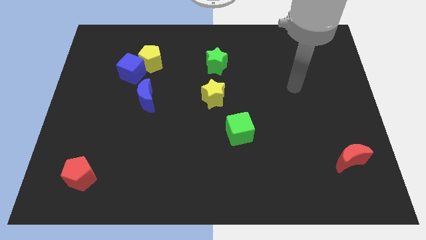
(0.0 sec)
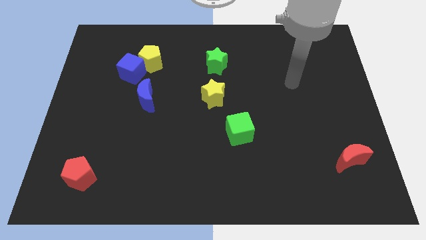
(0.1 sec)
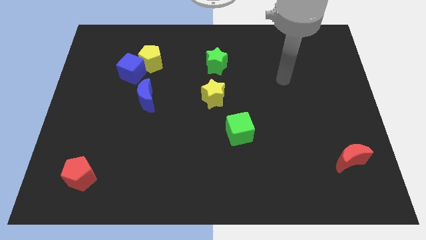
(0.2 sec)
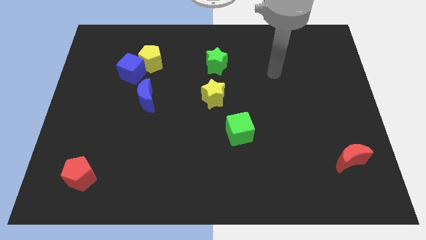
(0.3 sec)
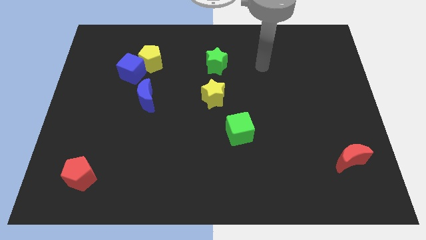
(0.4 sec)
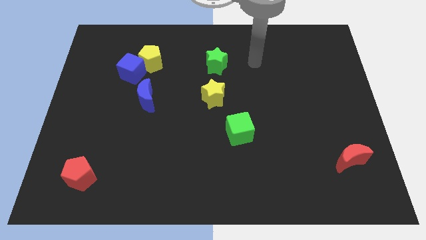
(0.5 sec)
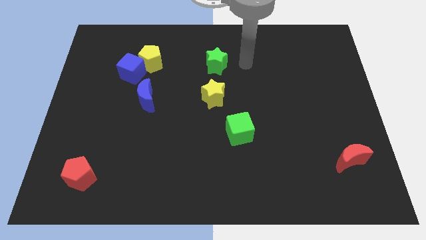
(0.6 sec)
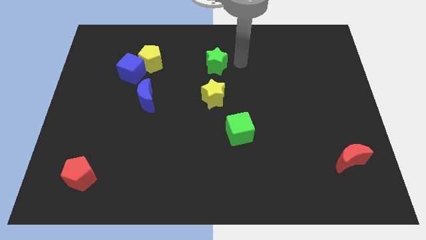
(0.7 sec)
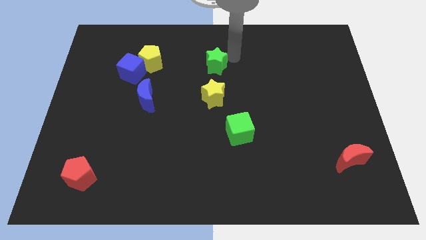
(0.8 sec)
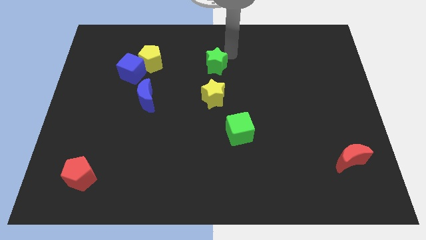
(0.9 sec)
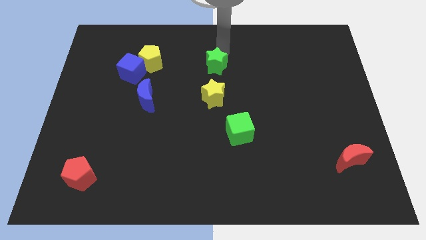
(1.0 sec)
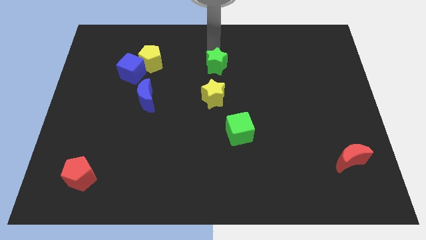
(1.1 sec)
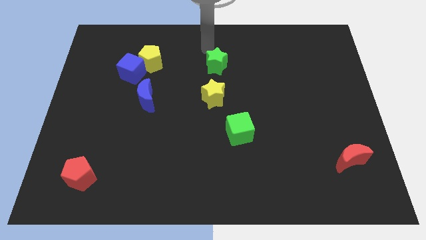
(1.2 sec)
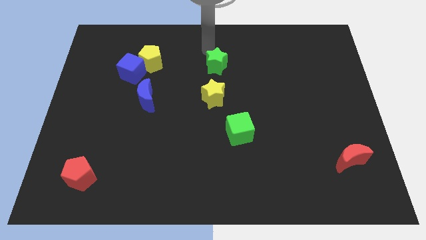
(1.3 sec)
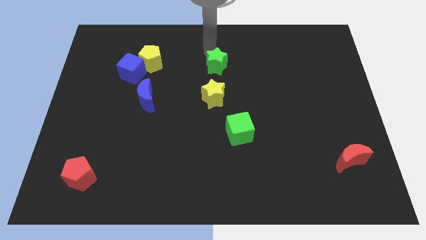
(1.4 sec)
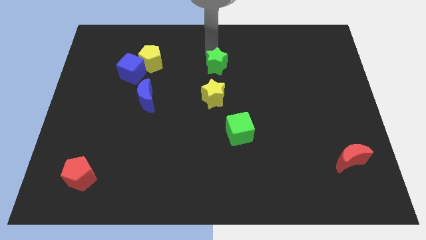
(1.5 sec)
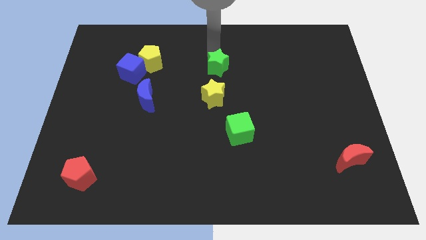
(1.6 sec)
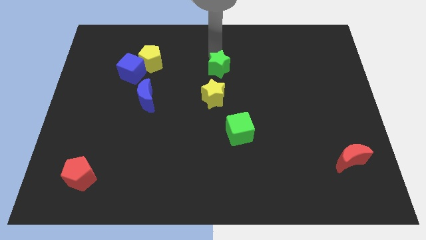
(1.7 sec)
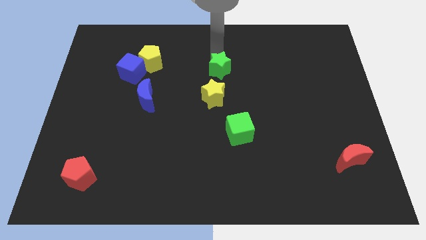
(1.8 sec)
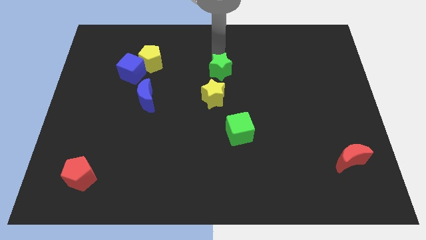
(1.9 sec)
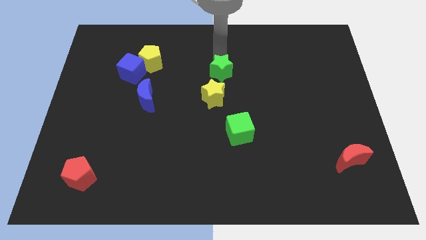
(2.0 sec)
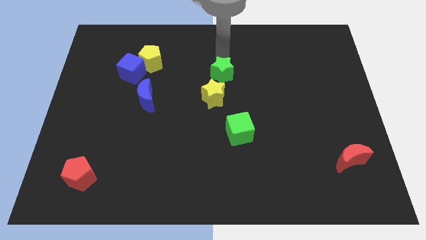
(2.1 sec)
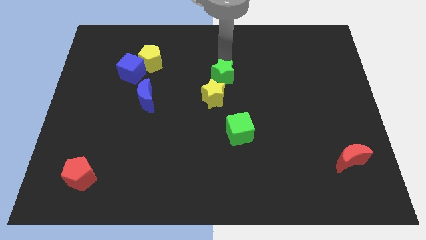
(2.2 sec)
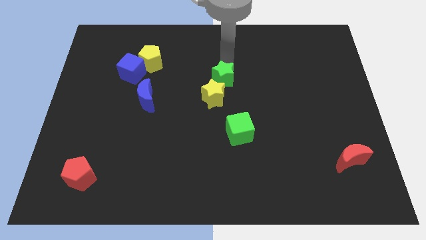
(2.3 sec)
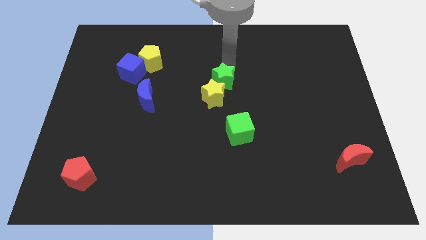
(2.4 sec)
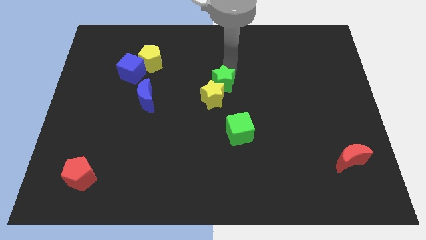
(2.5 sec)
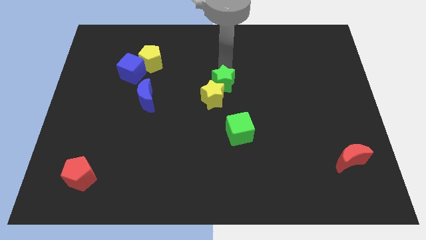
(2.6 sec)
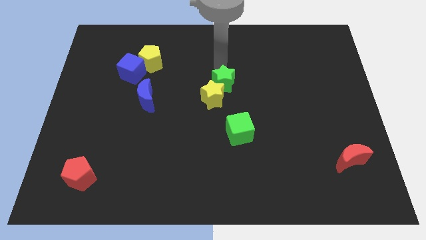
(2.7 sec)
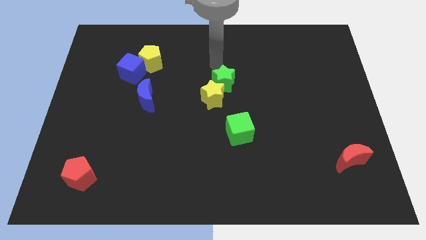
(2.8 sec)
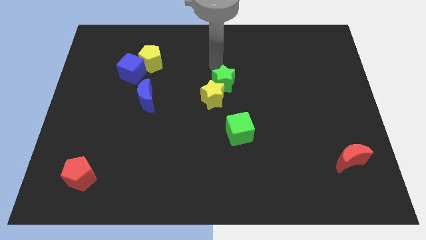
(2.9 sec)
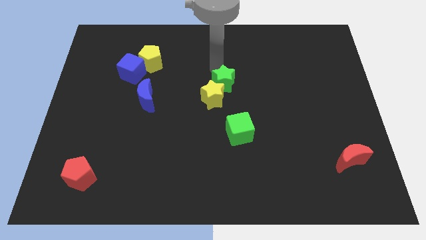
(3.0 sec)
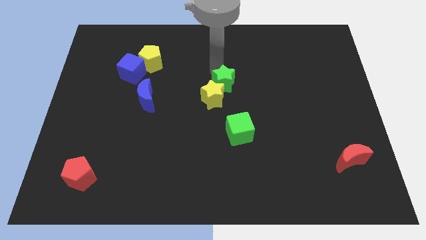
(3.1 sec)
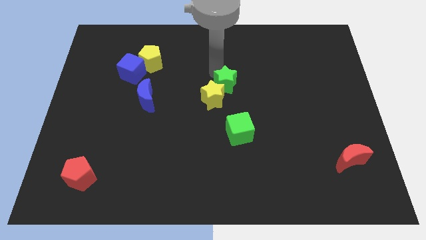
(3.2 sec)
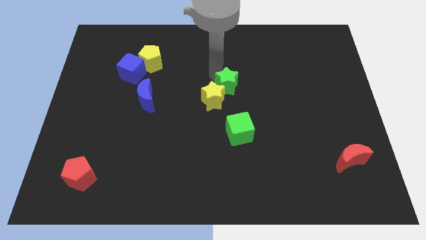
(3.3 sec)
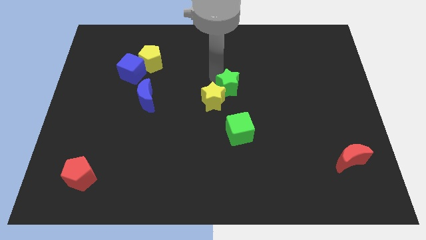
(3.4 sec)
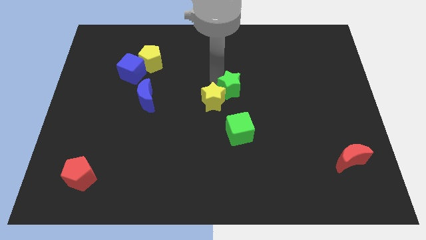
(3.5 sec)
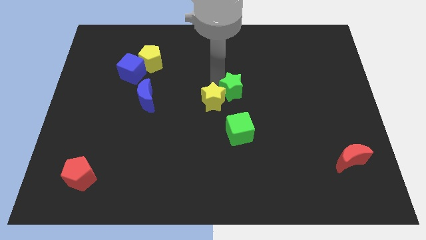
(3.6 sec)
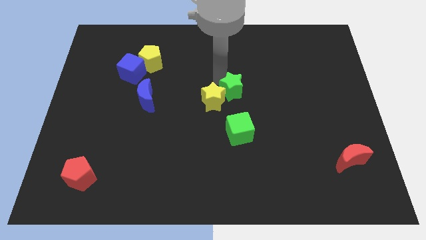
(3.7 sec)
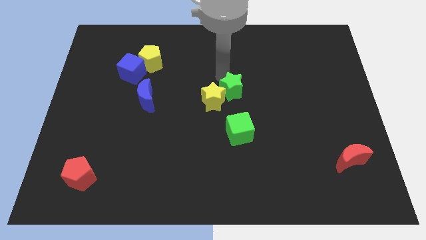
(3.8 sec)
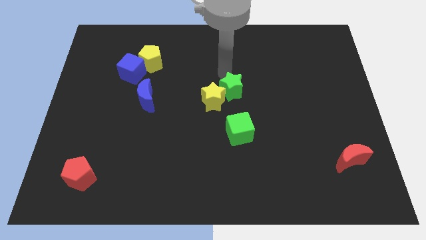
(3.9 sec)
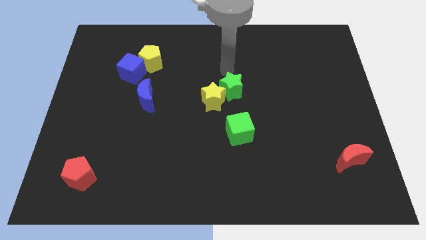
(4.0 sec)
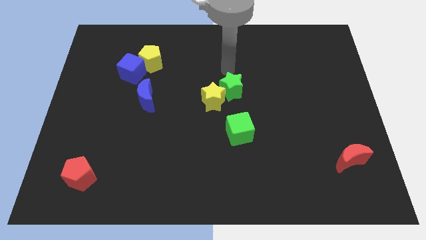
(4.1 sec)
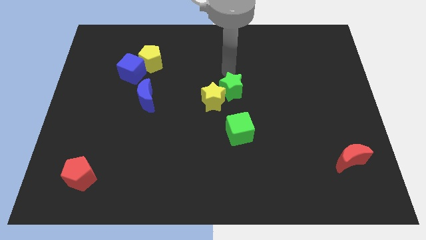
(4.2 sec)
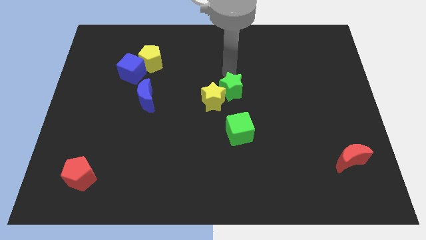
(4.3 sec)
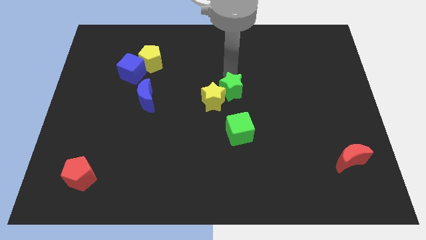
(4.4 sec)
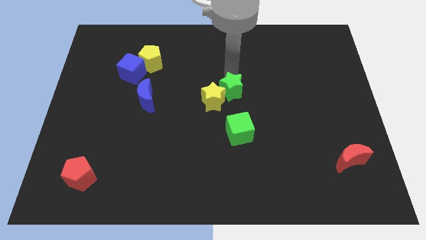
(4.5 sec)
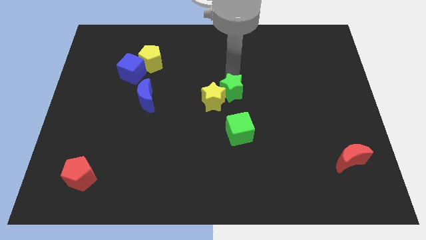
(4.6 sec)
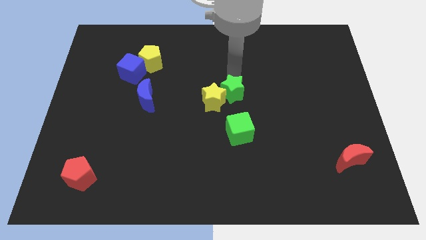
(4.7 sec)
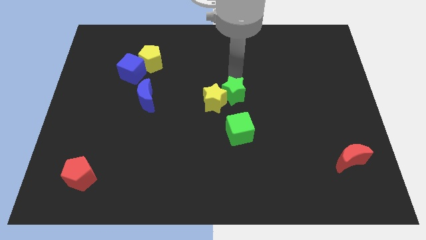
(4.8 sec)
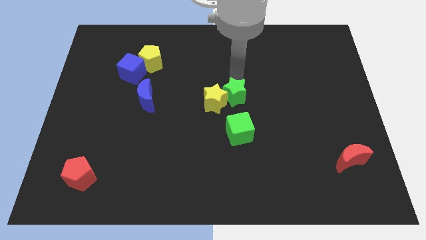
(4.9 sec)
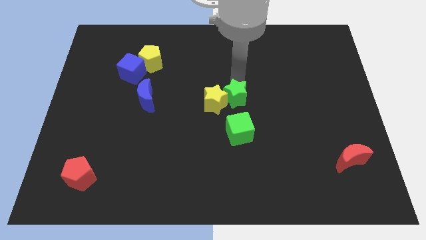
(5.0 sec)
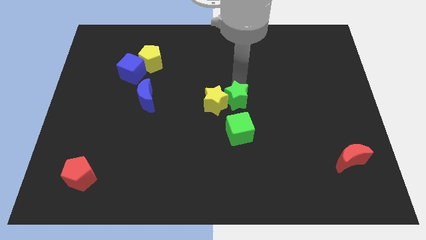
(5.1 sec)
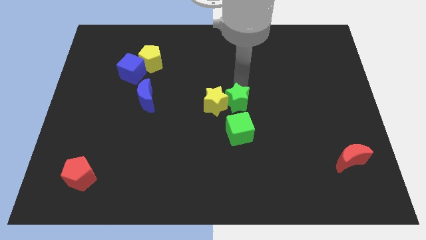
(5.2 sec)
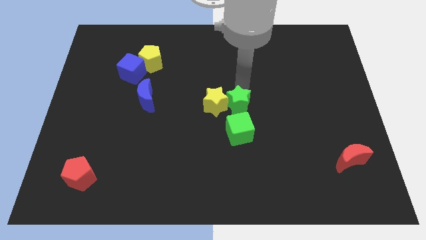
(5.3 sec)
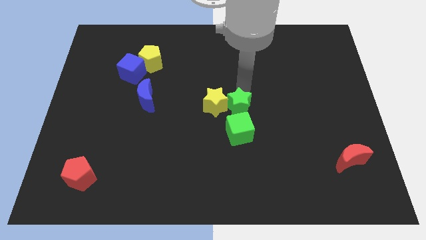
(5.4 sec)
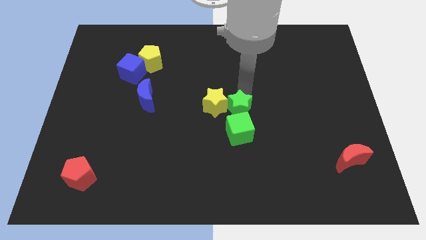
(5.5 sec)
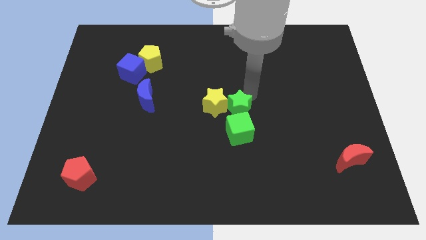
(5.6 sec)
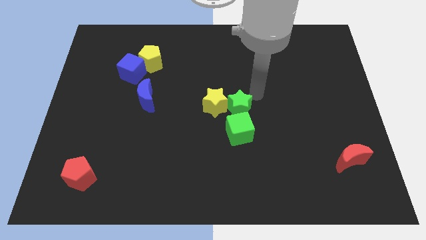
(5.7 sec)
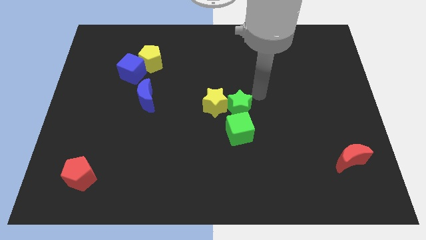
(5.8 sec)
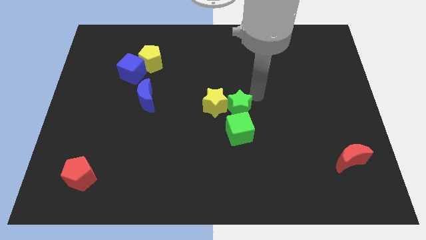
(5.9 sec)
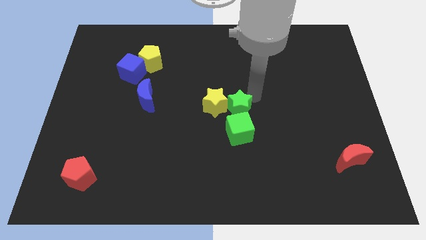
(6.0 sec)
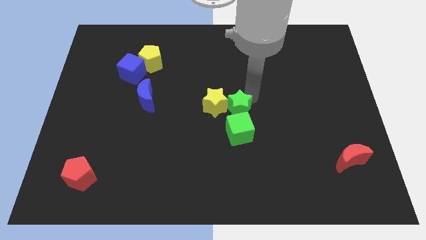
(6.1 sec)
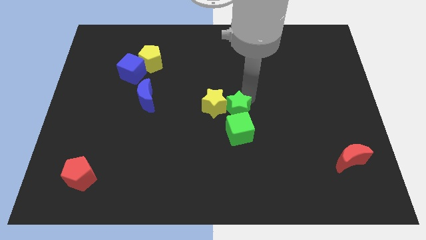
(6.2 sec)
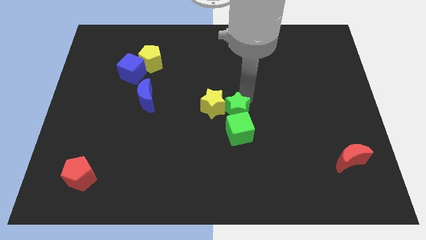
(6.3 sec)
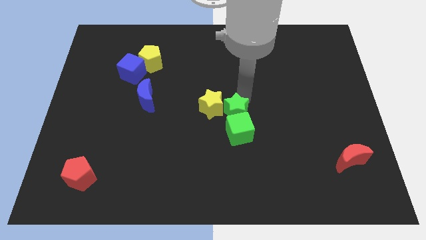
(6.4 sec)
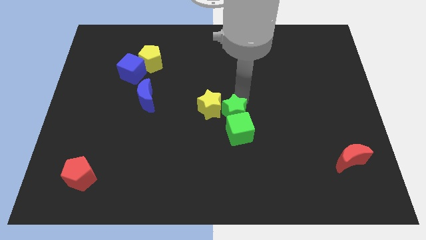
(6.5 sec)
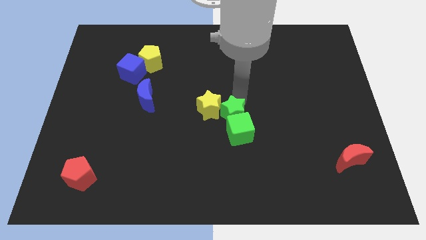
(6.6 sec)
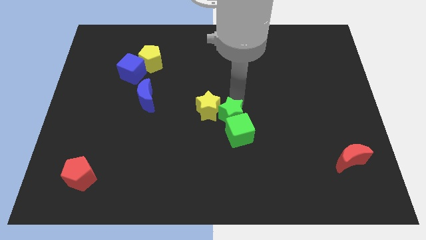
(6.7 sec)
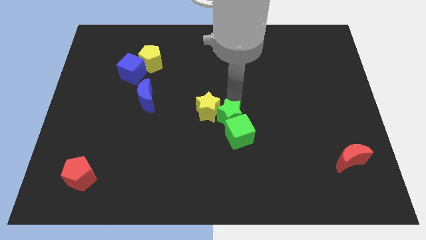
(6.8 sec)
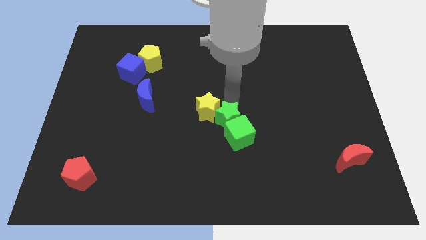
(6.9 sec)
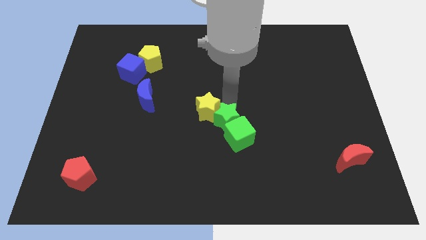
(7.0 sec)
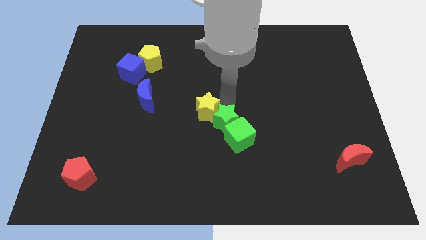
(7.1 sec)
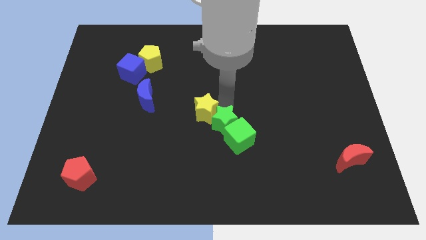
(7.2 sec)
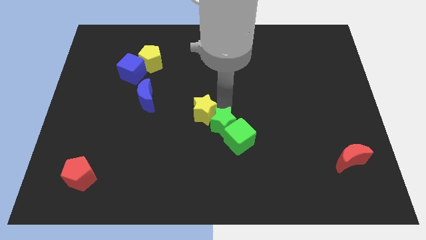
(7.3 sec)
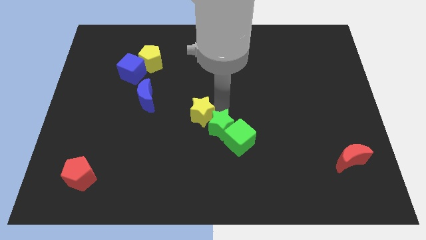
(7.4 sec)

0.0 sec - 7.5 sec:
move the green star down

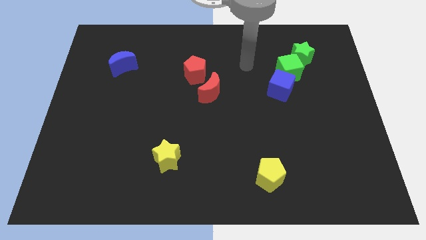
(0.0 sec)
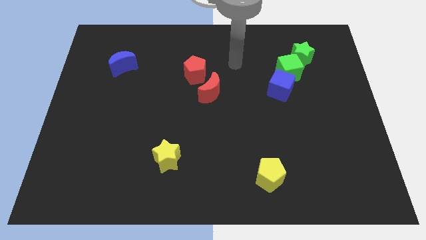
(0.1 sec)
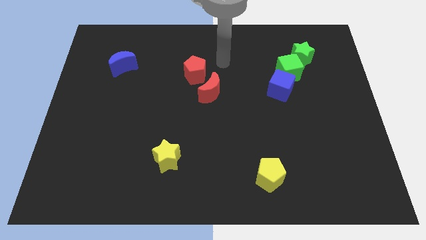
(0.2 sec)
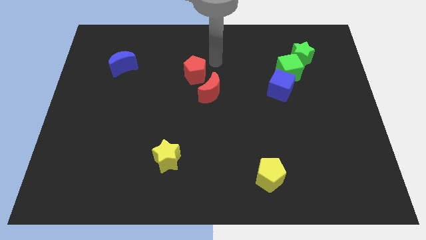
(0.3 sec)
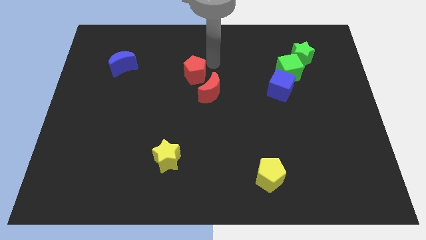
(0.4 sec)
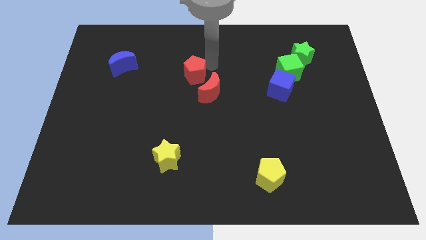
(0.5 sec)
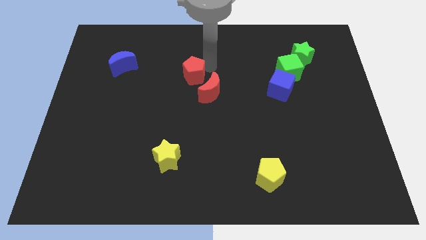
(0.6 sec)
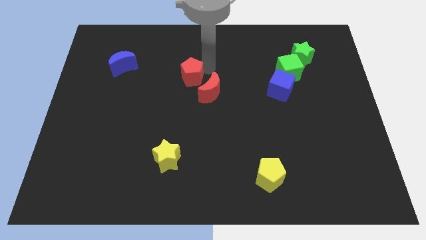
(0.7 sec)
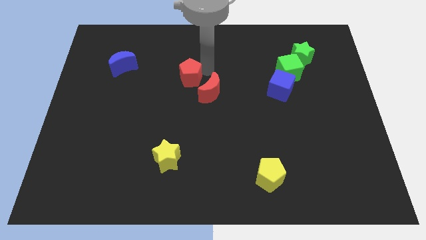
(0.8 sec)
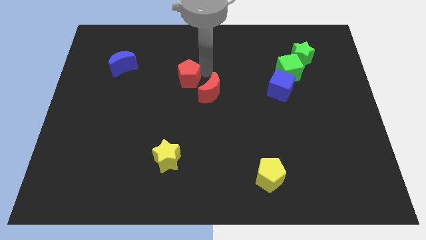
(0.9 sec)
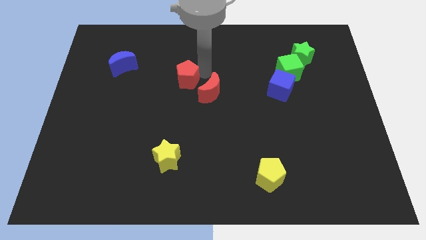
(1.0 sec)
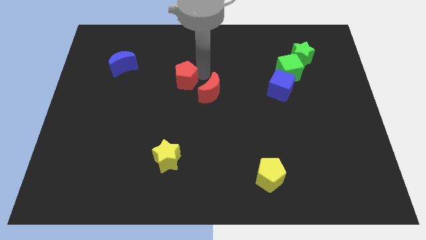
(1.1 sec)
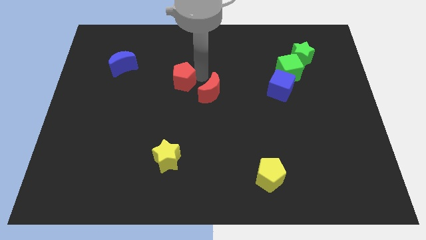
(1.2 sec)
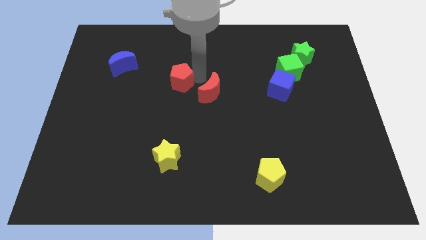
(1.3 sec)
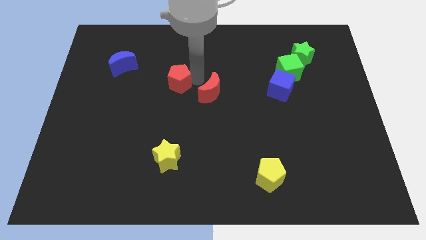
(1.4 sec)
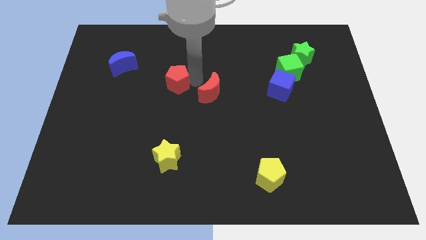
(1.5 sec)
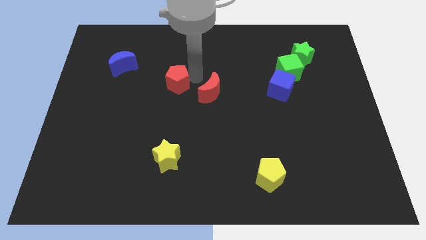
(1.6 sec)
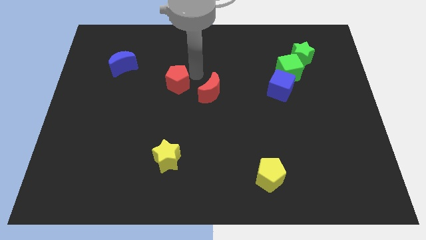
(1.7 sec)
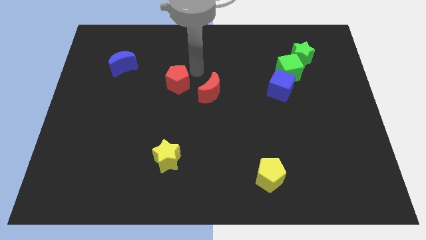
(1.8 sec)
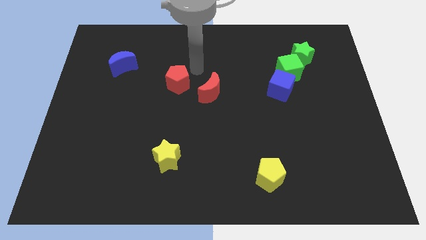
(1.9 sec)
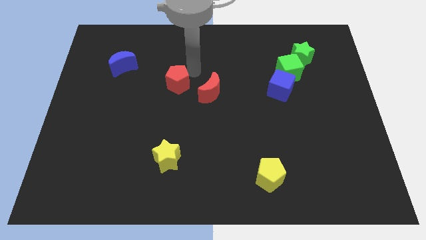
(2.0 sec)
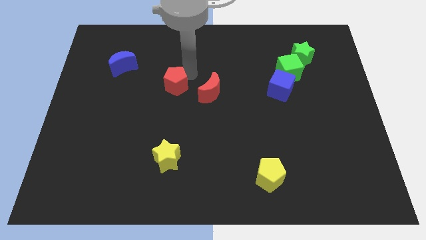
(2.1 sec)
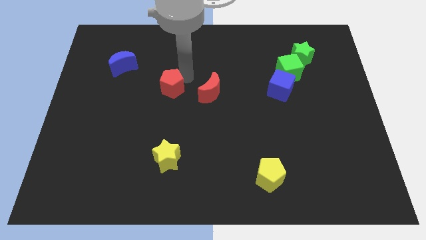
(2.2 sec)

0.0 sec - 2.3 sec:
slightly move the red pentagon diagonally down and to the left
